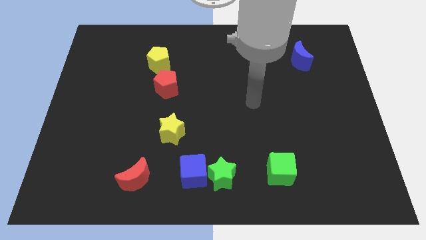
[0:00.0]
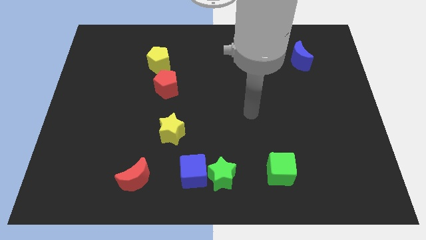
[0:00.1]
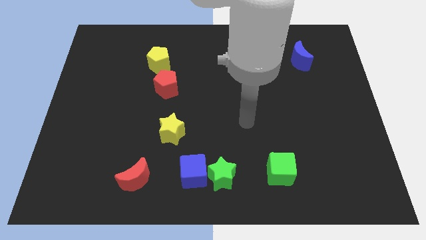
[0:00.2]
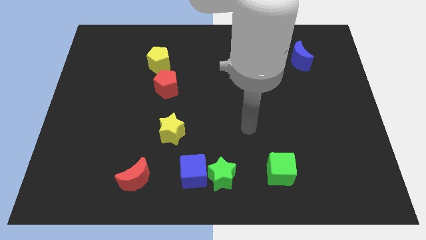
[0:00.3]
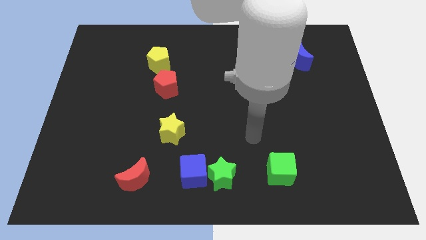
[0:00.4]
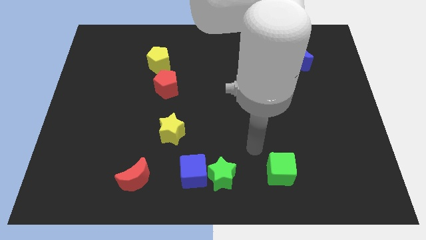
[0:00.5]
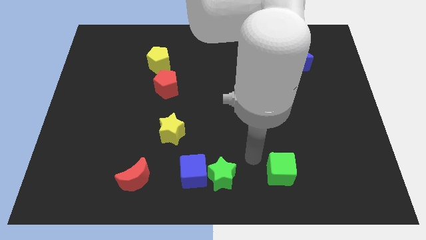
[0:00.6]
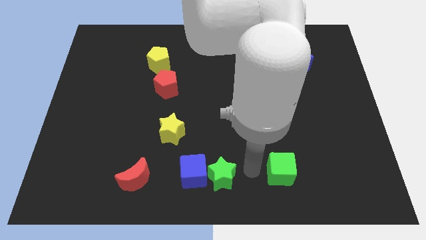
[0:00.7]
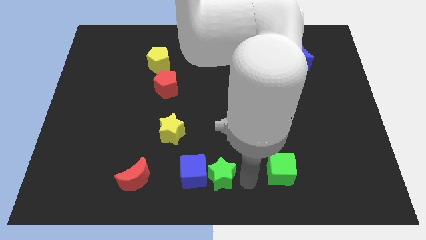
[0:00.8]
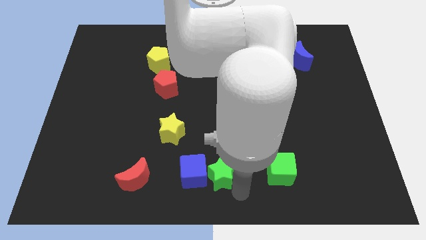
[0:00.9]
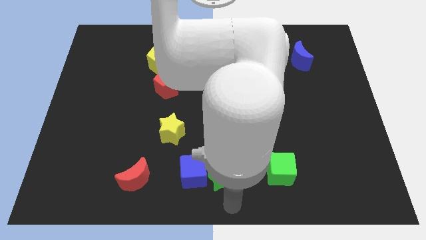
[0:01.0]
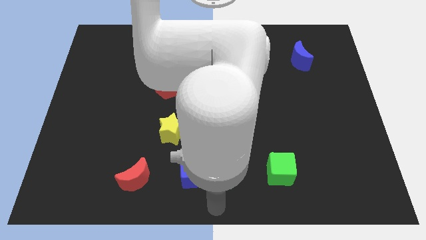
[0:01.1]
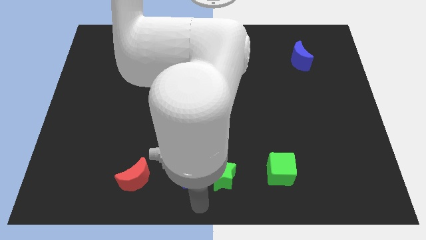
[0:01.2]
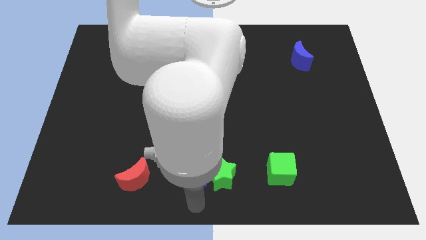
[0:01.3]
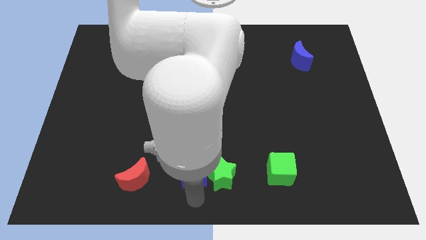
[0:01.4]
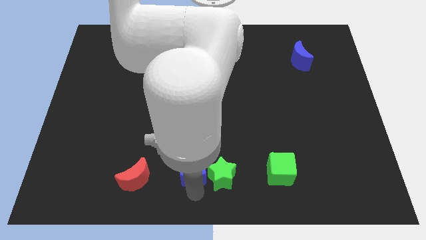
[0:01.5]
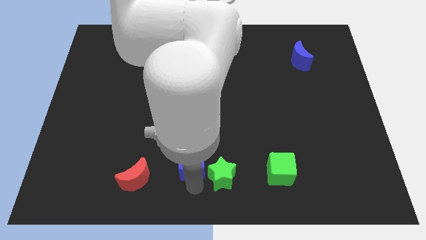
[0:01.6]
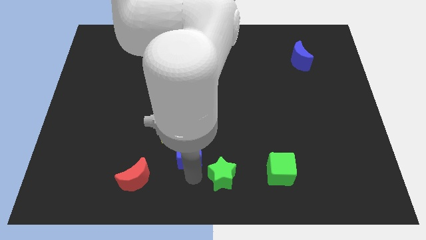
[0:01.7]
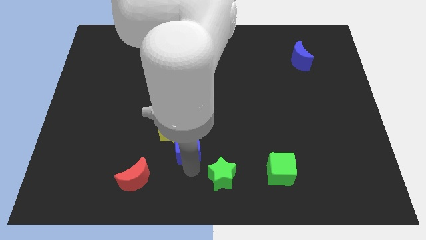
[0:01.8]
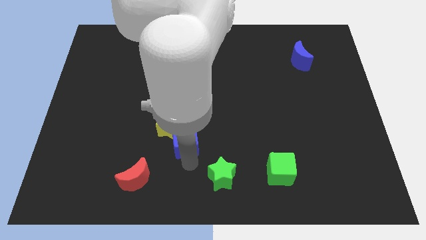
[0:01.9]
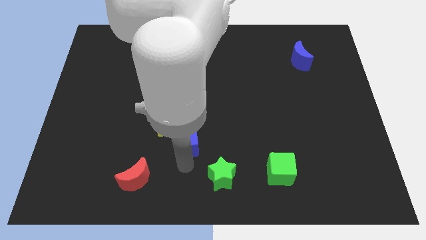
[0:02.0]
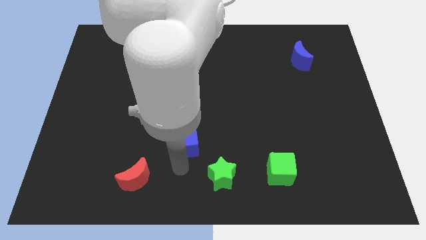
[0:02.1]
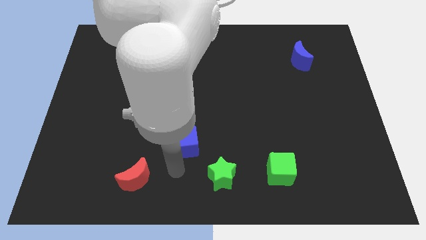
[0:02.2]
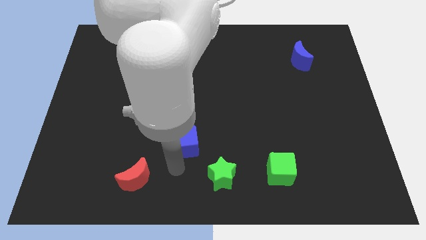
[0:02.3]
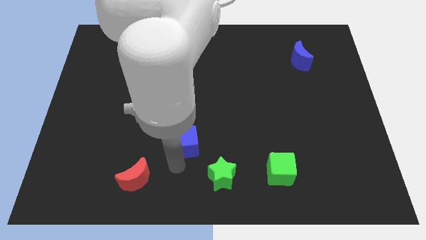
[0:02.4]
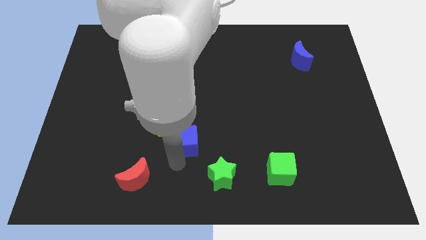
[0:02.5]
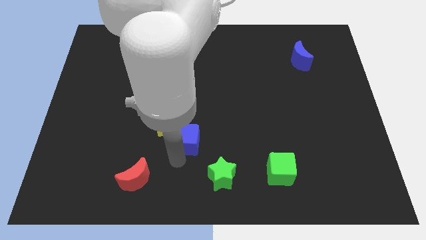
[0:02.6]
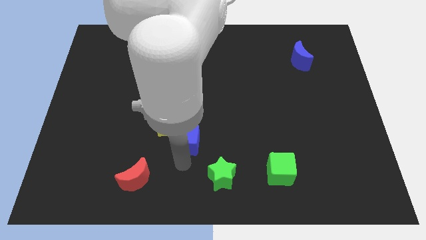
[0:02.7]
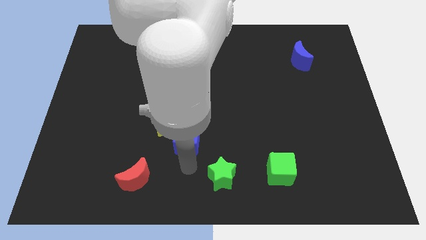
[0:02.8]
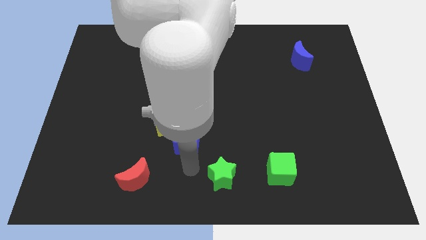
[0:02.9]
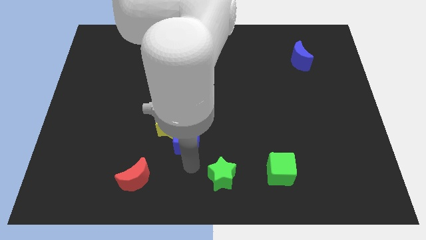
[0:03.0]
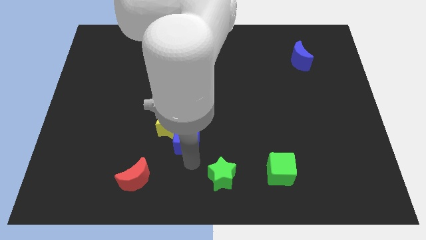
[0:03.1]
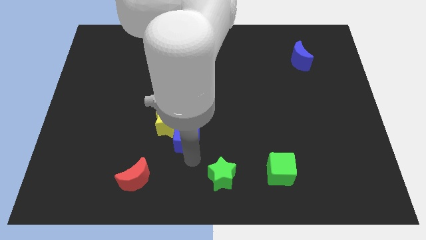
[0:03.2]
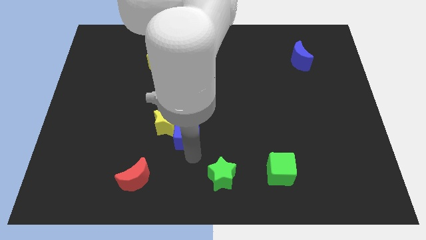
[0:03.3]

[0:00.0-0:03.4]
move the blue cube a little bit up and left diagonally

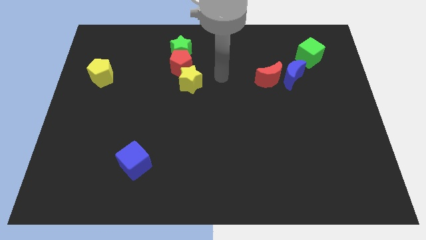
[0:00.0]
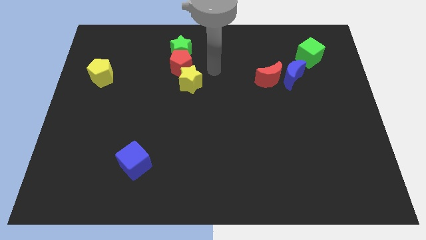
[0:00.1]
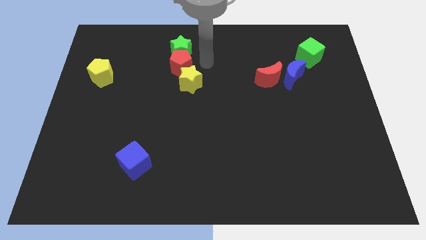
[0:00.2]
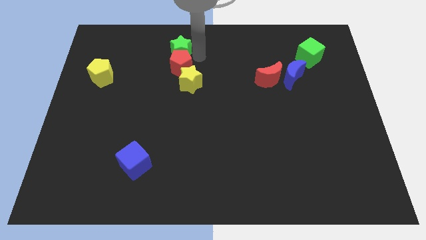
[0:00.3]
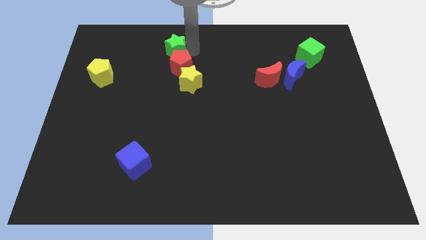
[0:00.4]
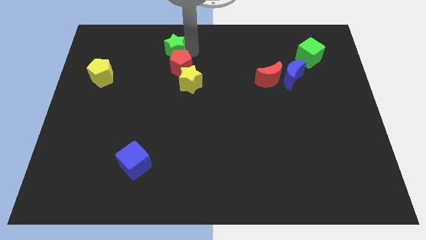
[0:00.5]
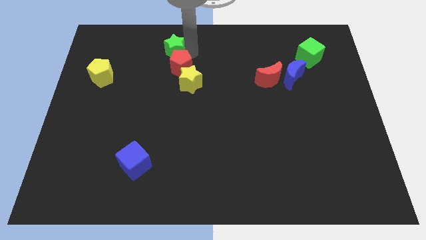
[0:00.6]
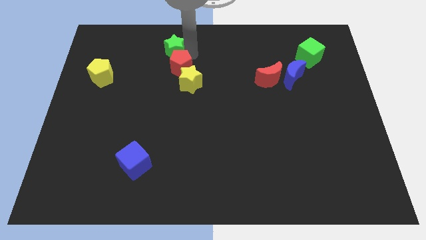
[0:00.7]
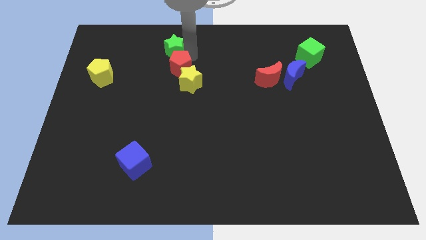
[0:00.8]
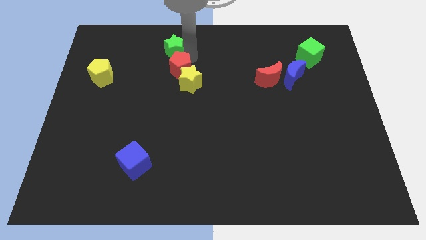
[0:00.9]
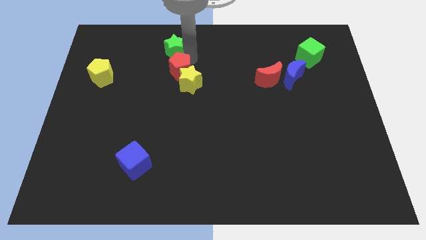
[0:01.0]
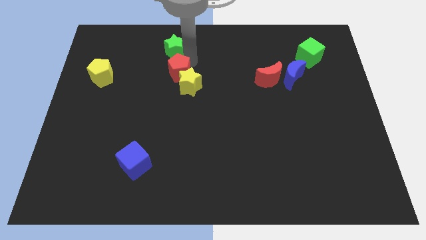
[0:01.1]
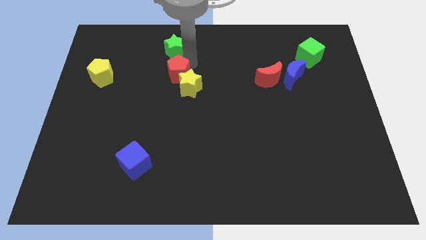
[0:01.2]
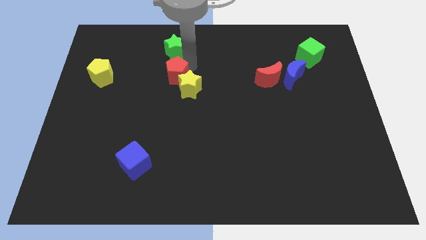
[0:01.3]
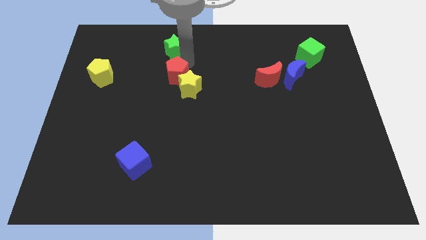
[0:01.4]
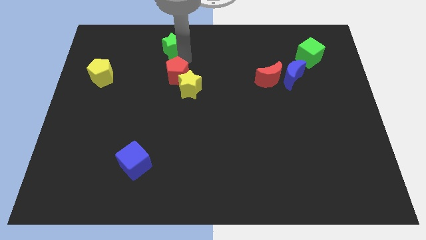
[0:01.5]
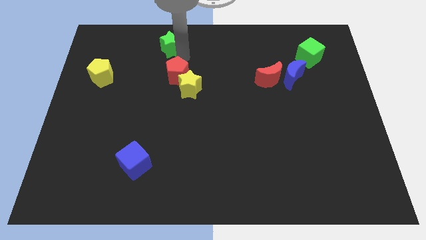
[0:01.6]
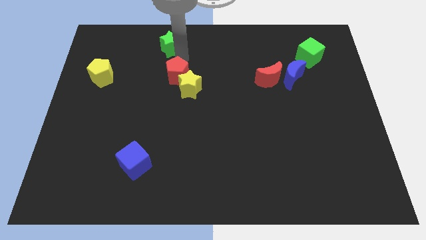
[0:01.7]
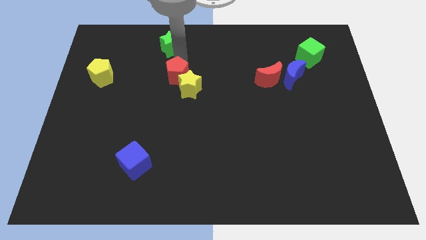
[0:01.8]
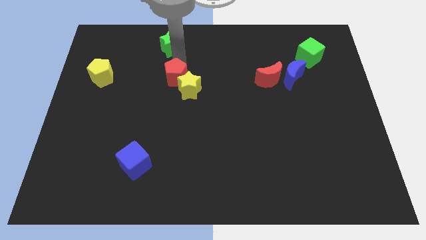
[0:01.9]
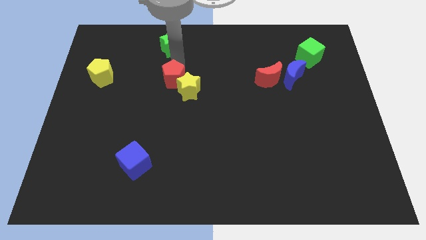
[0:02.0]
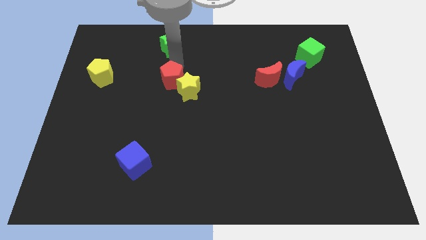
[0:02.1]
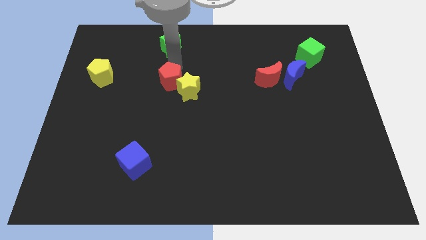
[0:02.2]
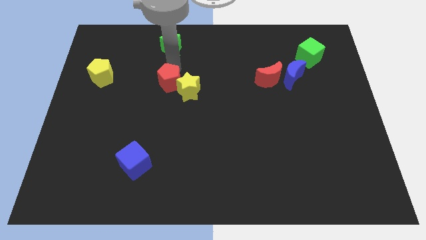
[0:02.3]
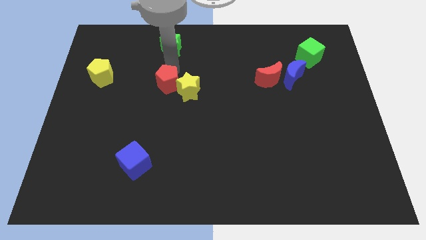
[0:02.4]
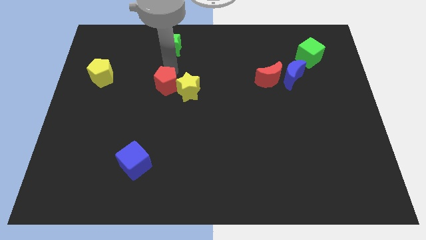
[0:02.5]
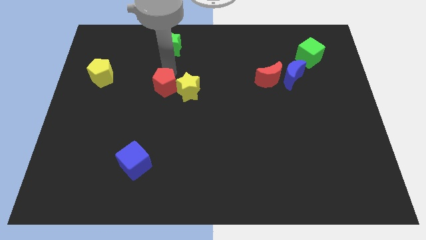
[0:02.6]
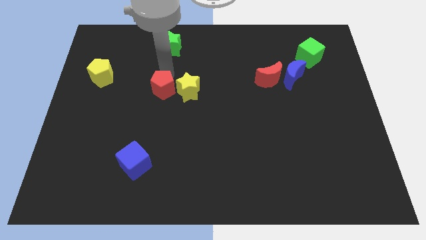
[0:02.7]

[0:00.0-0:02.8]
slide the red pentagon slightly downwards

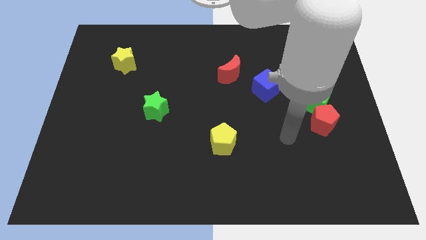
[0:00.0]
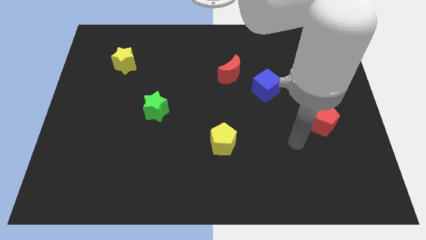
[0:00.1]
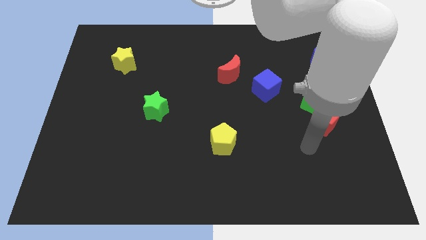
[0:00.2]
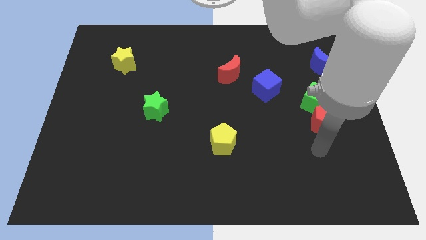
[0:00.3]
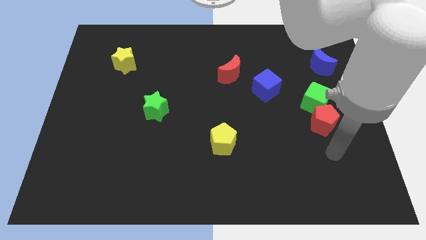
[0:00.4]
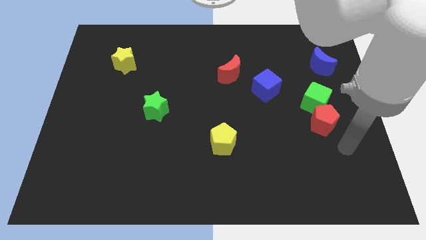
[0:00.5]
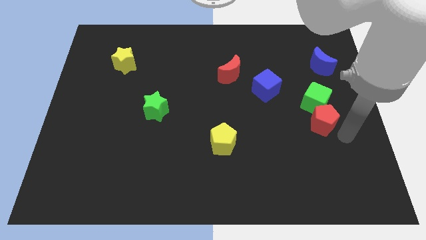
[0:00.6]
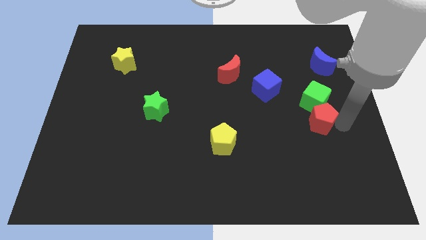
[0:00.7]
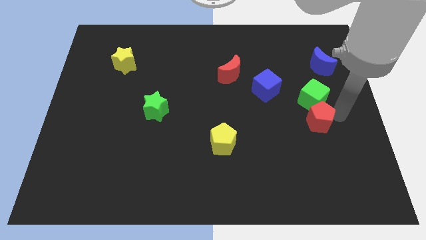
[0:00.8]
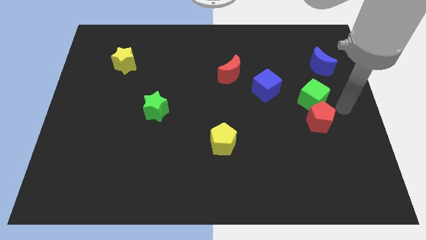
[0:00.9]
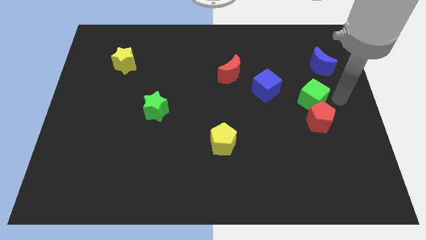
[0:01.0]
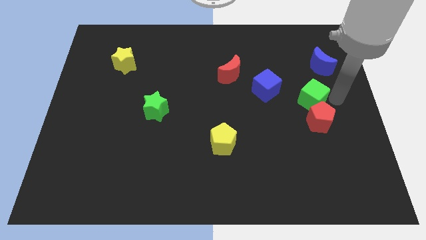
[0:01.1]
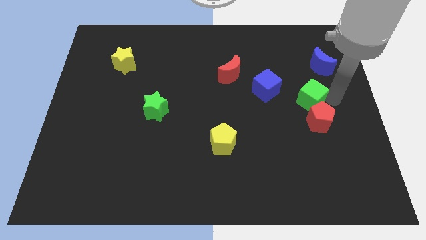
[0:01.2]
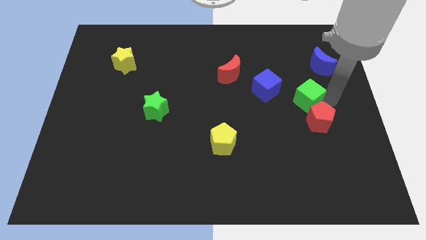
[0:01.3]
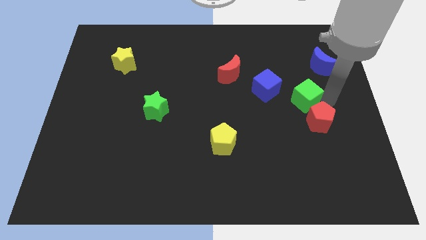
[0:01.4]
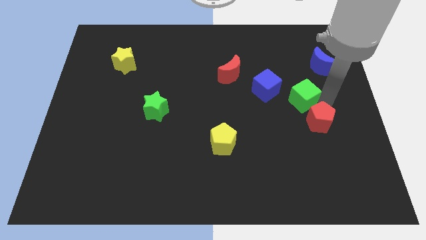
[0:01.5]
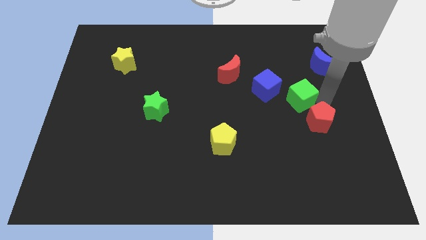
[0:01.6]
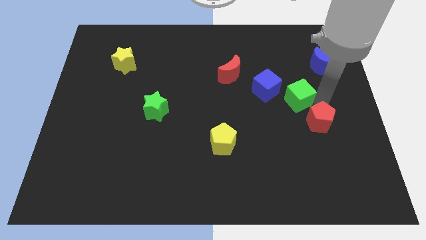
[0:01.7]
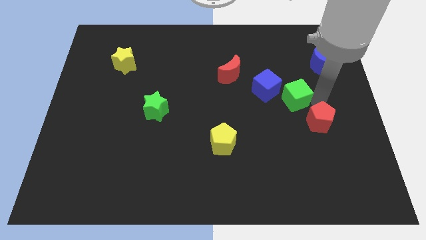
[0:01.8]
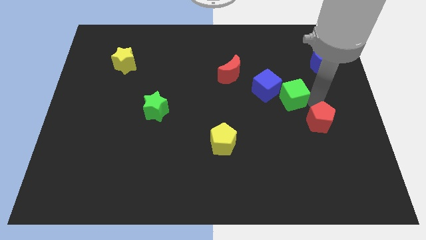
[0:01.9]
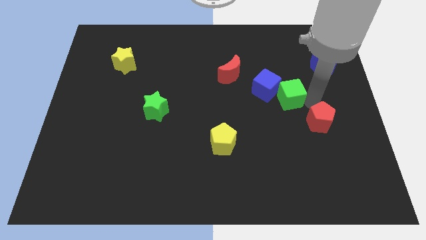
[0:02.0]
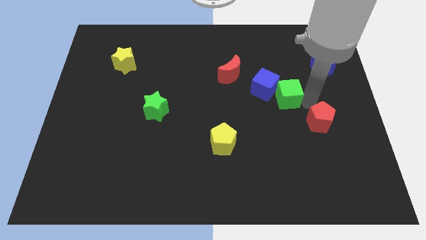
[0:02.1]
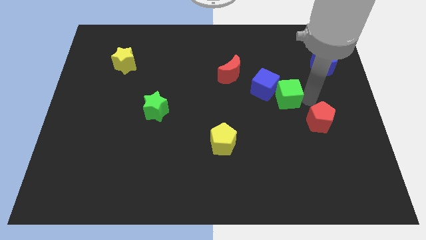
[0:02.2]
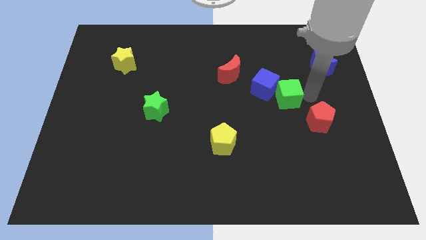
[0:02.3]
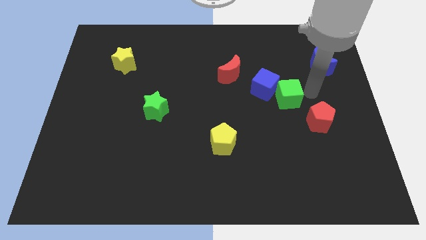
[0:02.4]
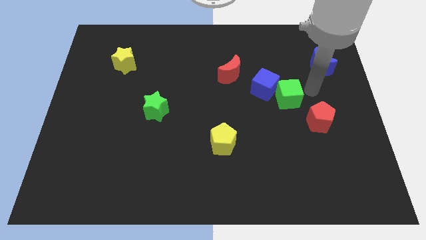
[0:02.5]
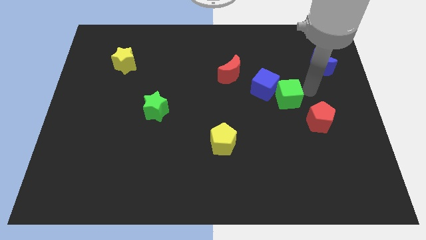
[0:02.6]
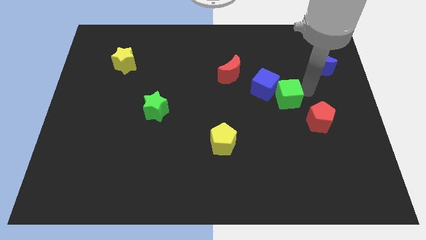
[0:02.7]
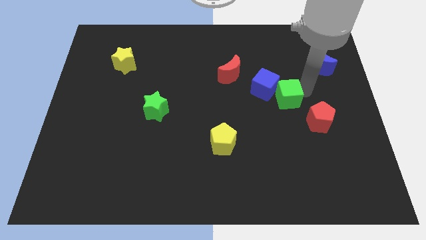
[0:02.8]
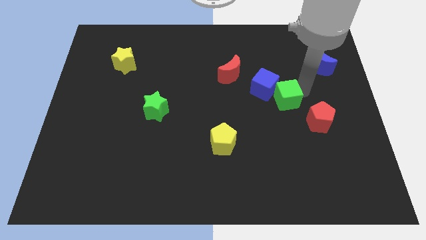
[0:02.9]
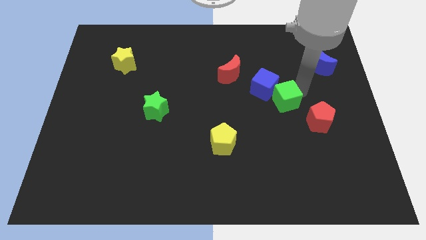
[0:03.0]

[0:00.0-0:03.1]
push the green cube left a little bit
